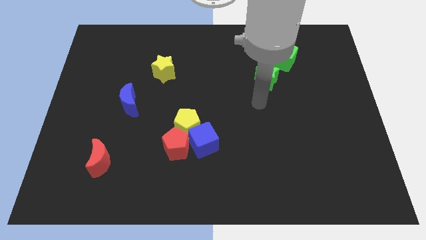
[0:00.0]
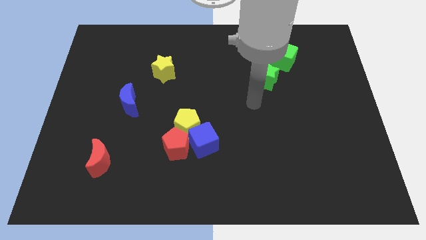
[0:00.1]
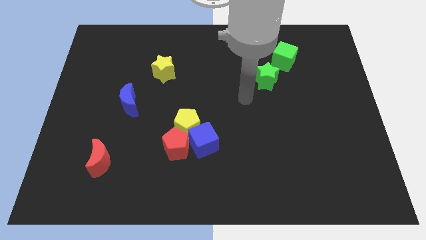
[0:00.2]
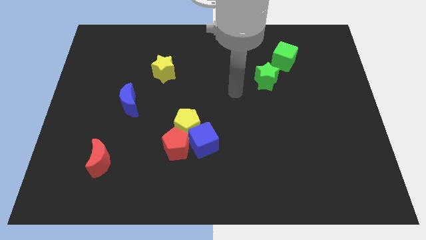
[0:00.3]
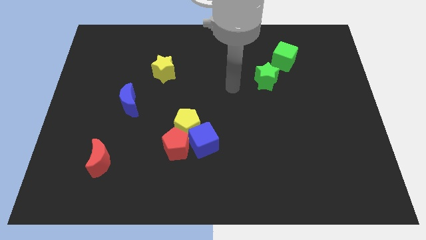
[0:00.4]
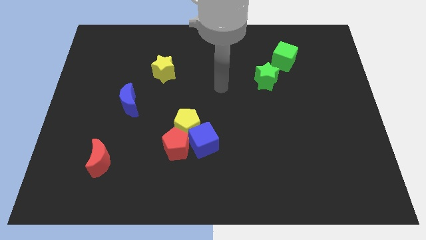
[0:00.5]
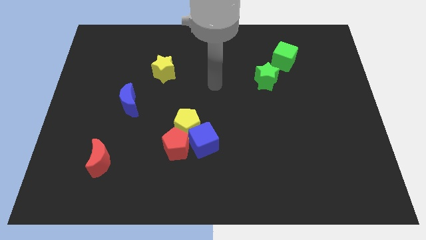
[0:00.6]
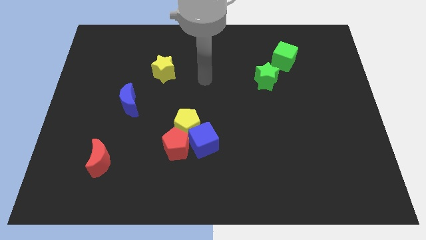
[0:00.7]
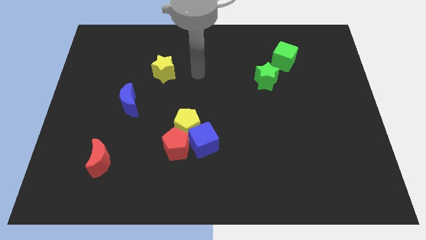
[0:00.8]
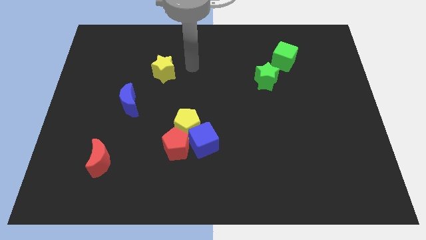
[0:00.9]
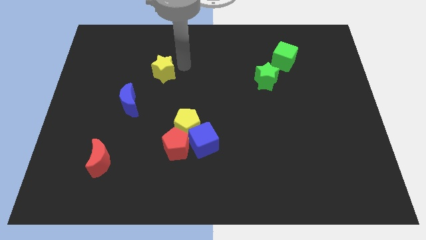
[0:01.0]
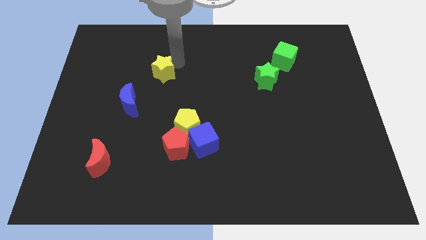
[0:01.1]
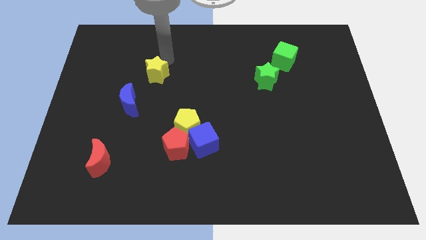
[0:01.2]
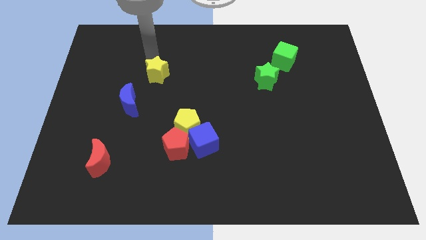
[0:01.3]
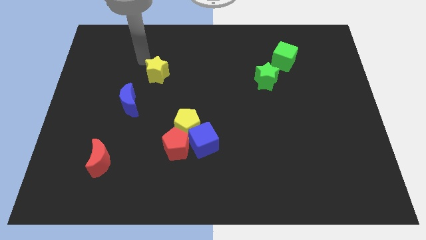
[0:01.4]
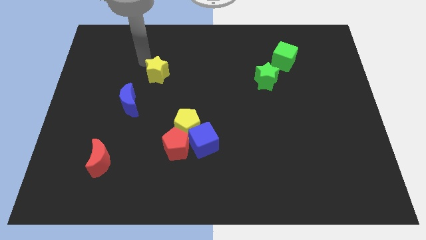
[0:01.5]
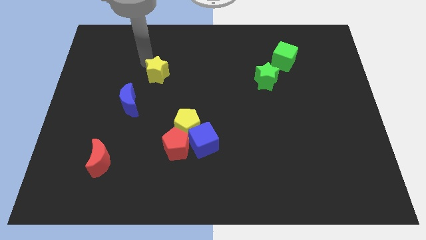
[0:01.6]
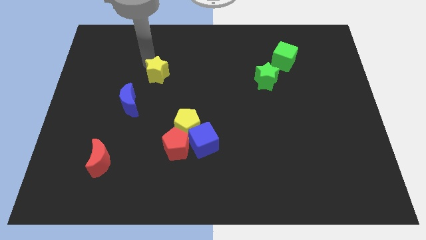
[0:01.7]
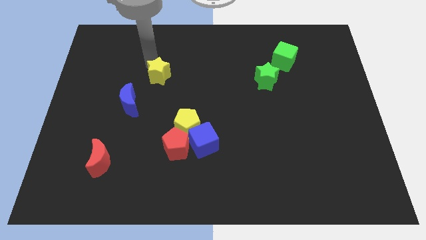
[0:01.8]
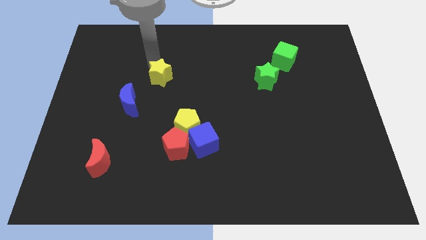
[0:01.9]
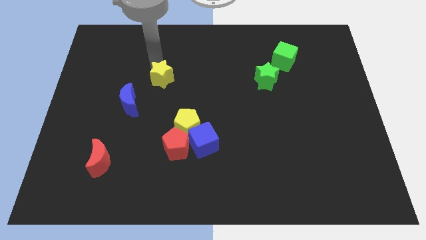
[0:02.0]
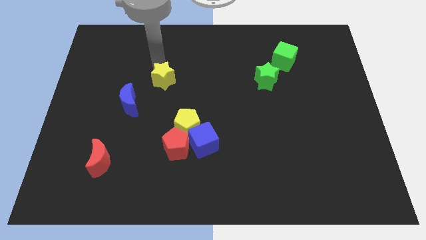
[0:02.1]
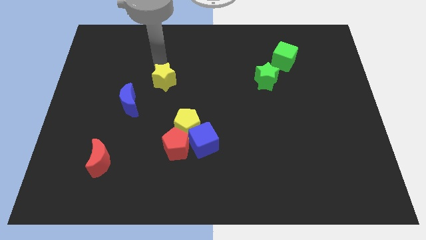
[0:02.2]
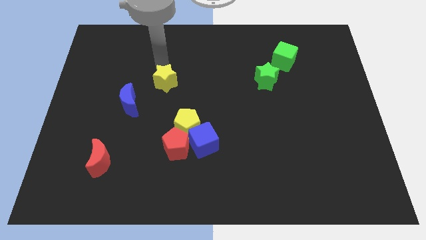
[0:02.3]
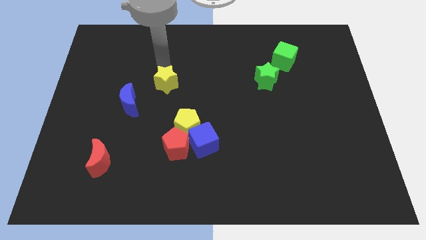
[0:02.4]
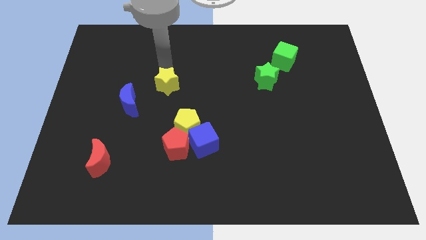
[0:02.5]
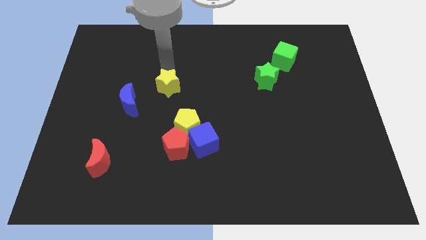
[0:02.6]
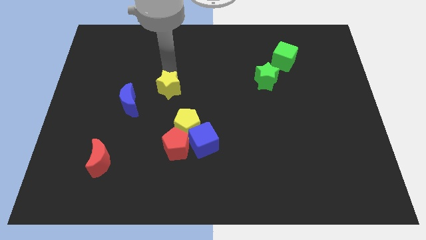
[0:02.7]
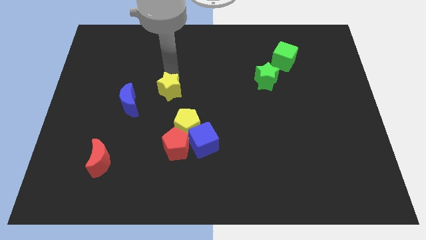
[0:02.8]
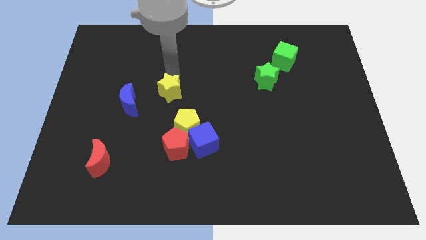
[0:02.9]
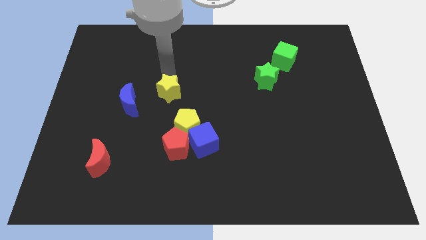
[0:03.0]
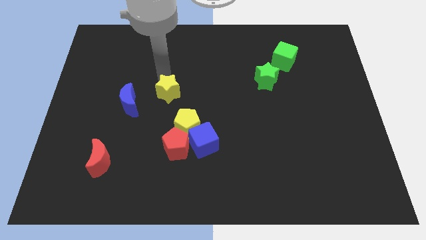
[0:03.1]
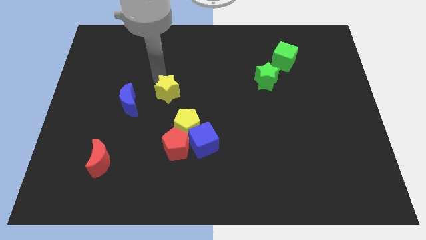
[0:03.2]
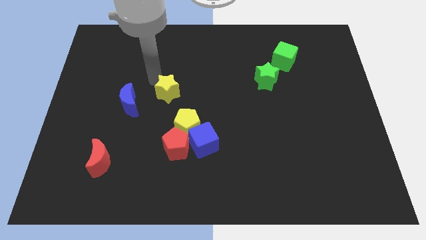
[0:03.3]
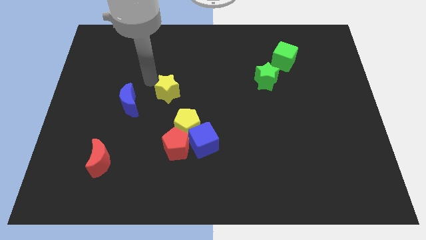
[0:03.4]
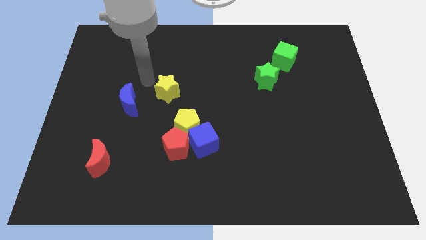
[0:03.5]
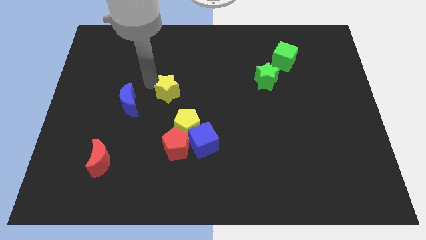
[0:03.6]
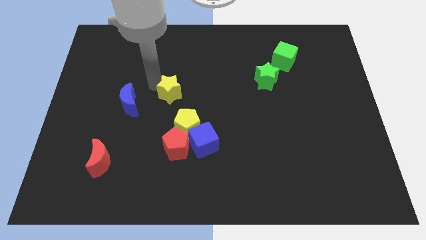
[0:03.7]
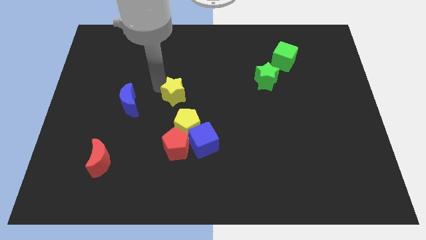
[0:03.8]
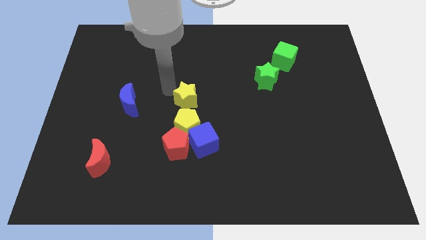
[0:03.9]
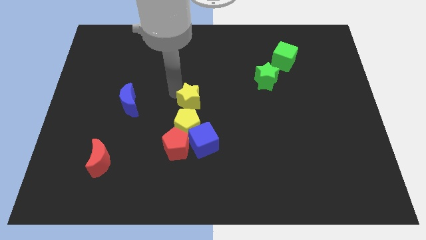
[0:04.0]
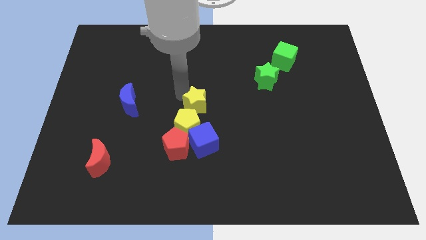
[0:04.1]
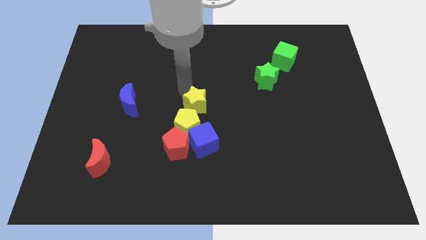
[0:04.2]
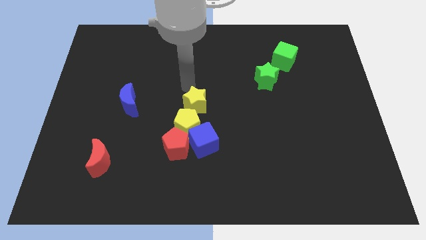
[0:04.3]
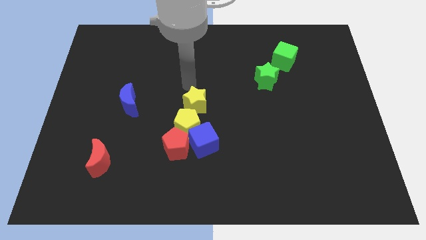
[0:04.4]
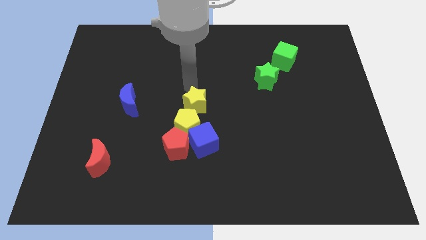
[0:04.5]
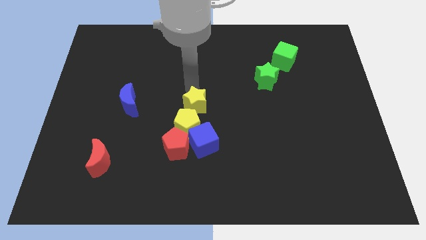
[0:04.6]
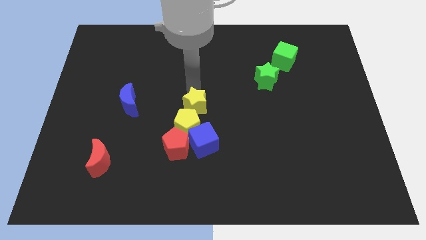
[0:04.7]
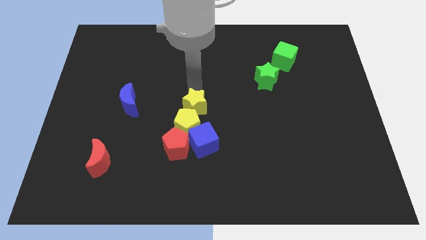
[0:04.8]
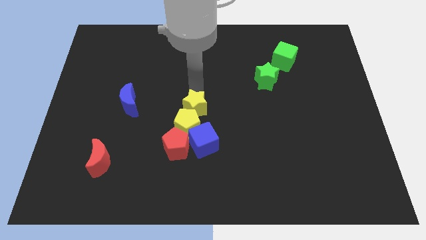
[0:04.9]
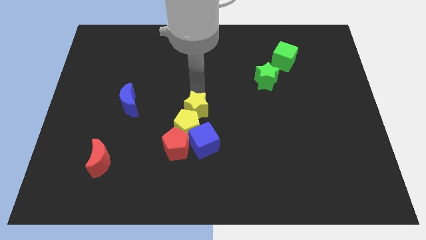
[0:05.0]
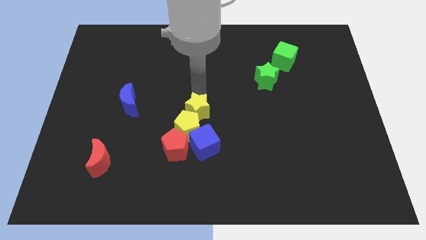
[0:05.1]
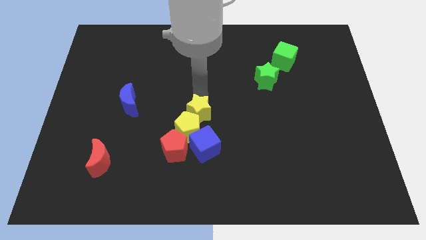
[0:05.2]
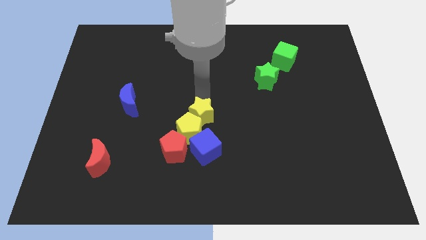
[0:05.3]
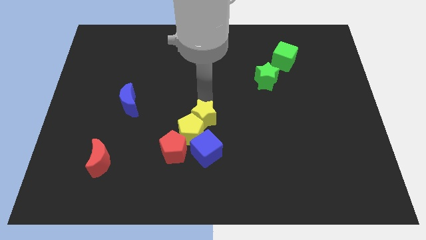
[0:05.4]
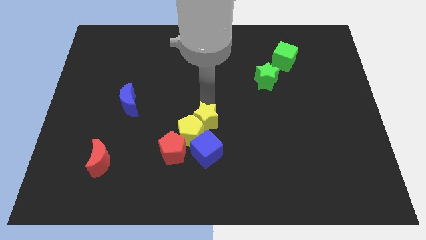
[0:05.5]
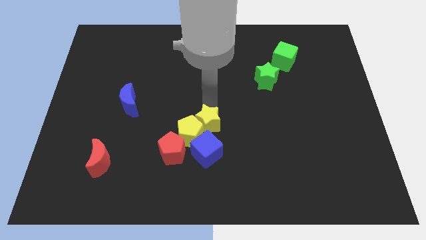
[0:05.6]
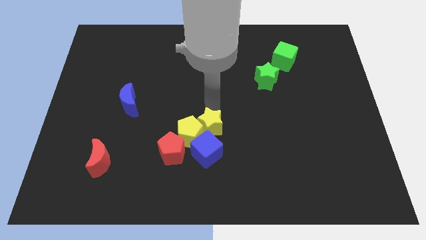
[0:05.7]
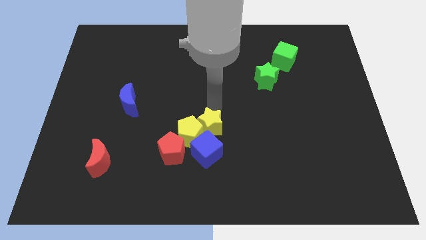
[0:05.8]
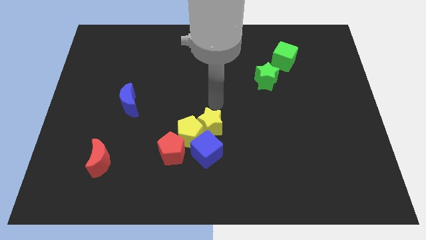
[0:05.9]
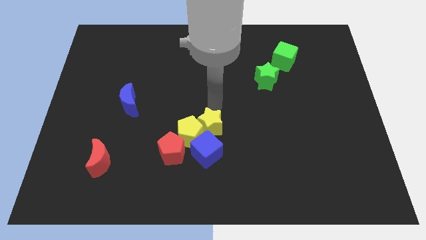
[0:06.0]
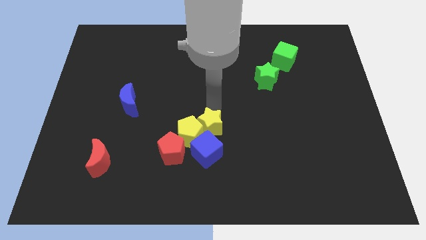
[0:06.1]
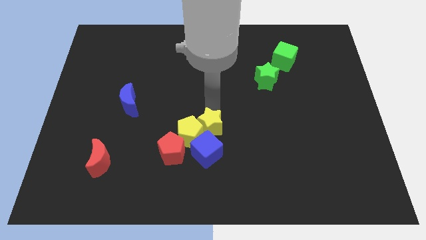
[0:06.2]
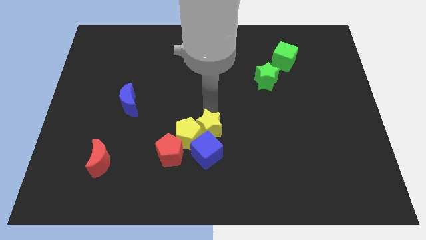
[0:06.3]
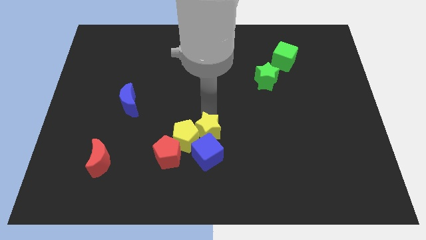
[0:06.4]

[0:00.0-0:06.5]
push the yellow star to the blue cube

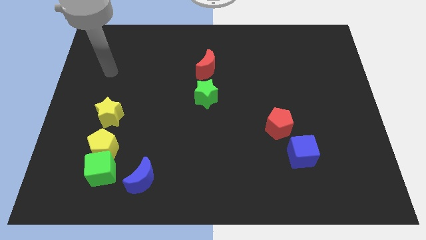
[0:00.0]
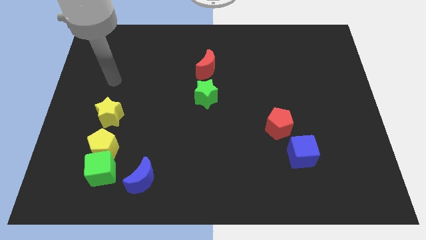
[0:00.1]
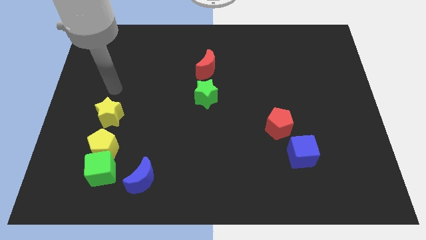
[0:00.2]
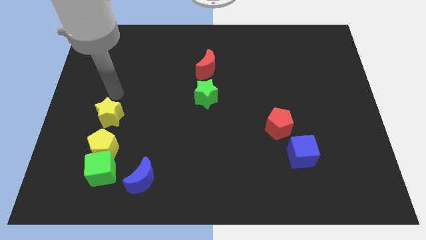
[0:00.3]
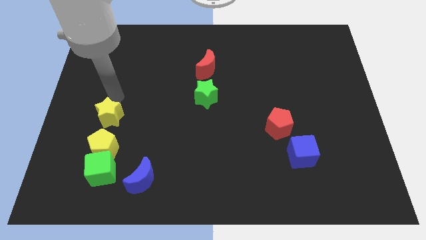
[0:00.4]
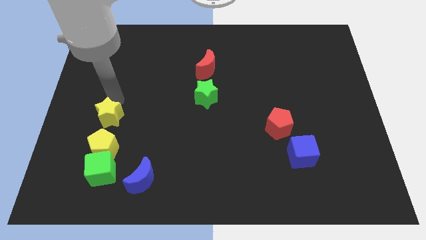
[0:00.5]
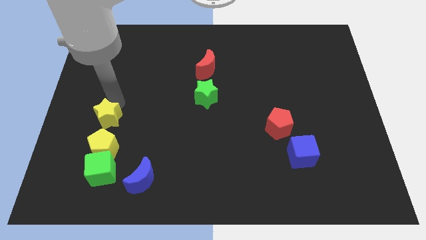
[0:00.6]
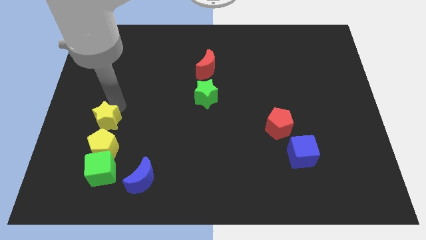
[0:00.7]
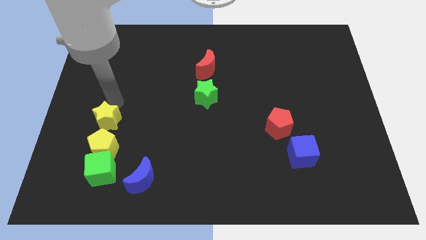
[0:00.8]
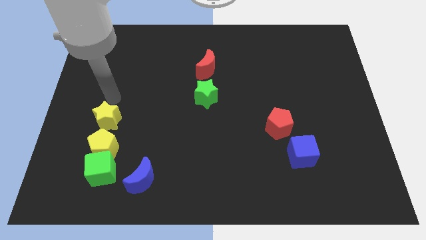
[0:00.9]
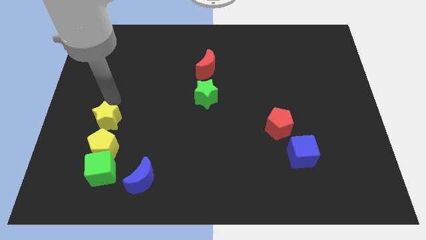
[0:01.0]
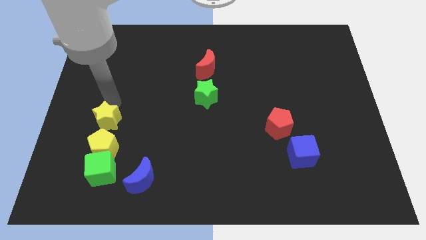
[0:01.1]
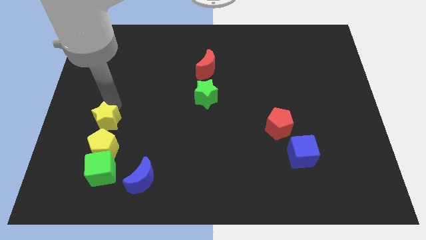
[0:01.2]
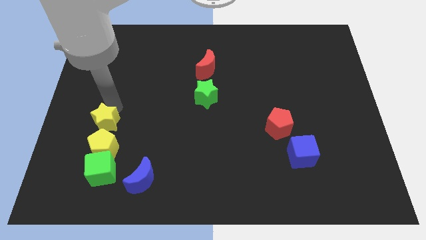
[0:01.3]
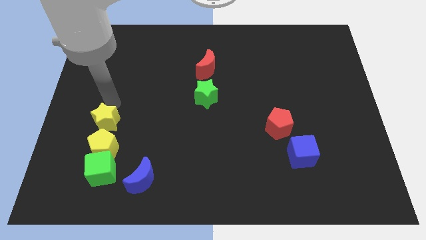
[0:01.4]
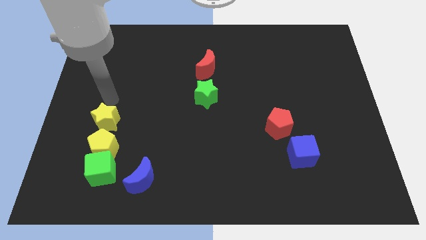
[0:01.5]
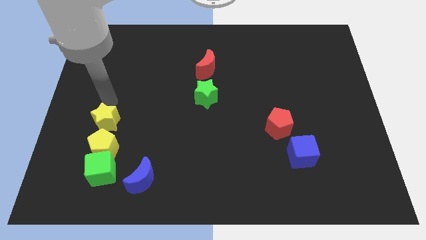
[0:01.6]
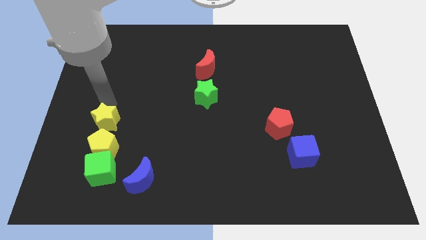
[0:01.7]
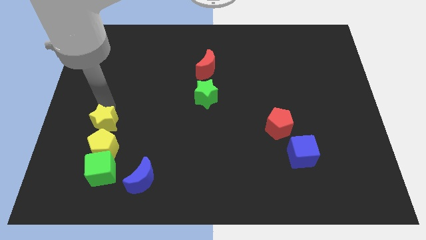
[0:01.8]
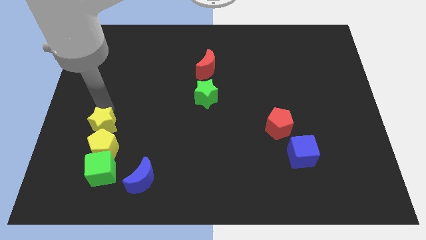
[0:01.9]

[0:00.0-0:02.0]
push the yellow star towards the yellow pentagon
